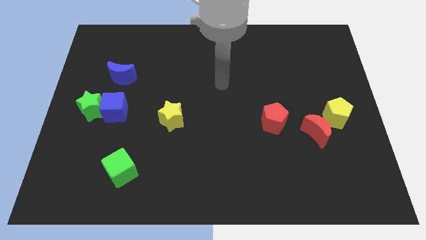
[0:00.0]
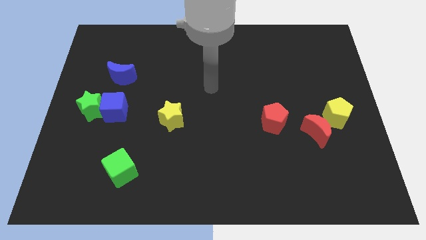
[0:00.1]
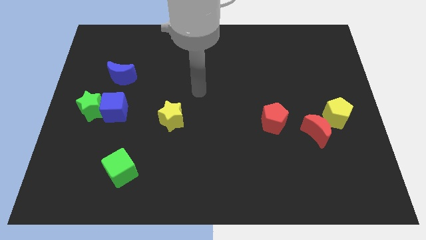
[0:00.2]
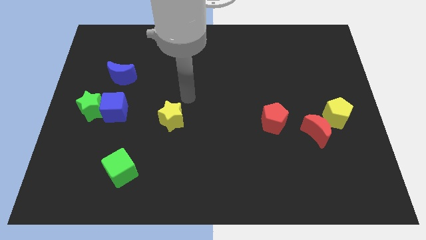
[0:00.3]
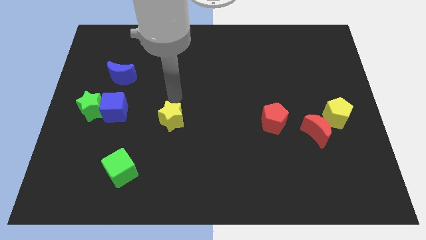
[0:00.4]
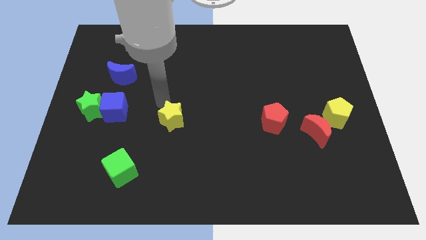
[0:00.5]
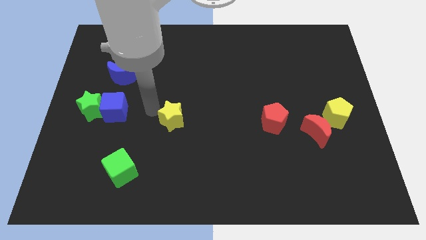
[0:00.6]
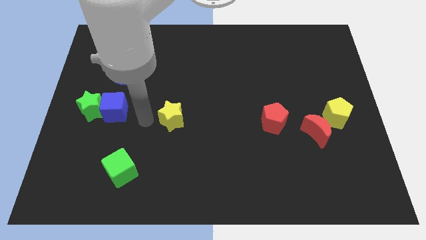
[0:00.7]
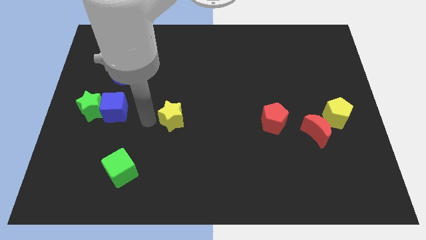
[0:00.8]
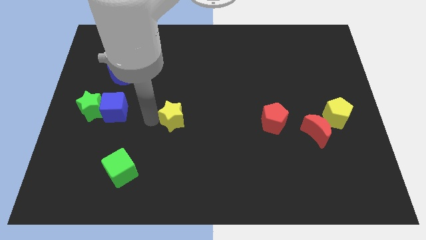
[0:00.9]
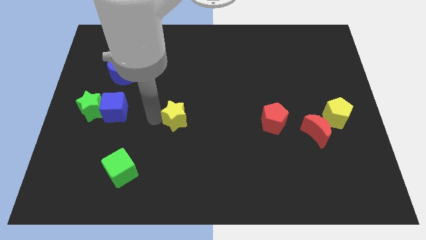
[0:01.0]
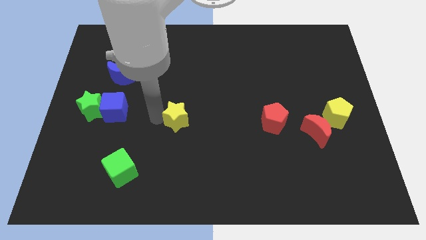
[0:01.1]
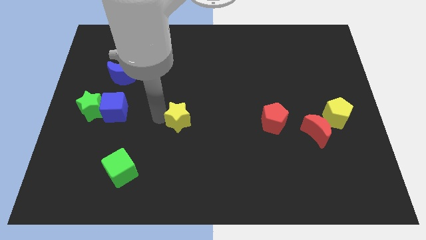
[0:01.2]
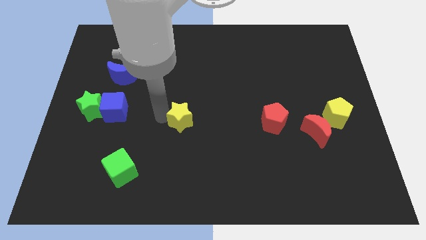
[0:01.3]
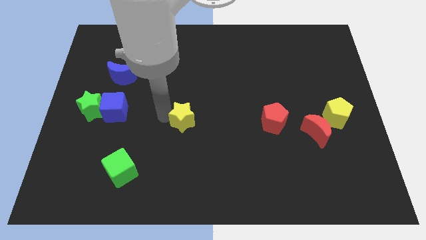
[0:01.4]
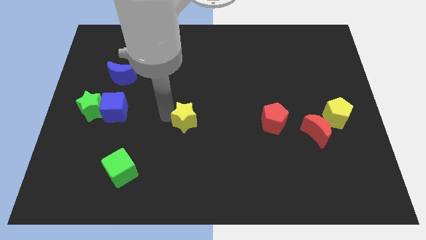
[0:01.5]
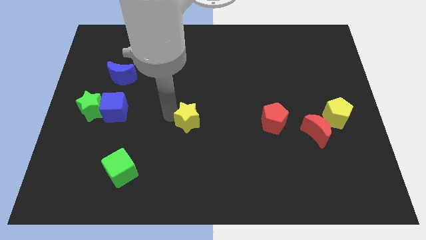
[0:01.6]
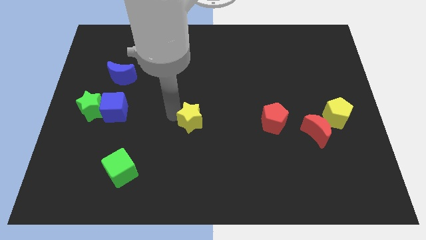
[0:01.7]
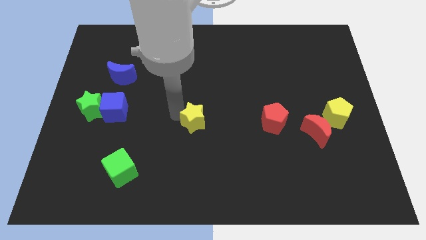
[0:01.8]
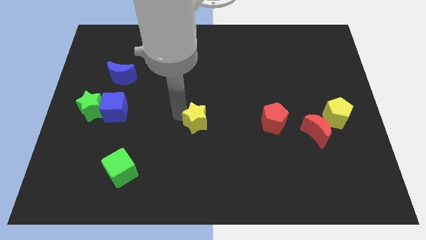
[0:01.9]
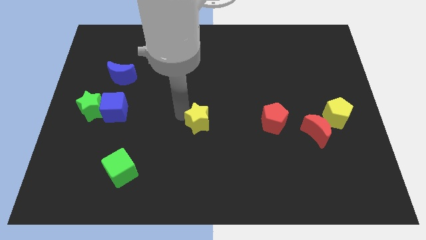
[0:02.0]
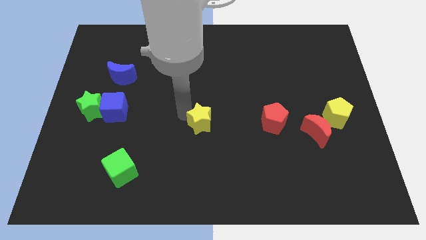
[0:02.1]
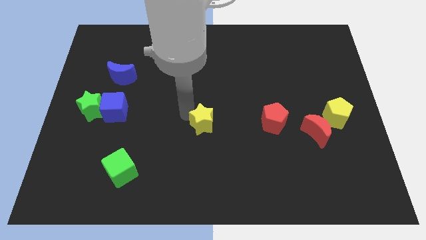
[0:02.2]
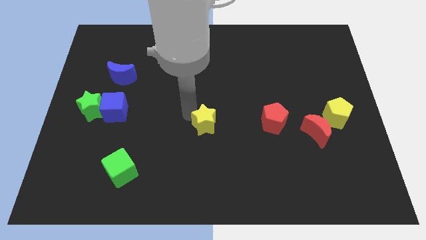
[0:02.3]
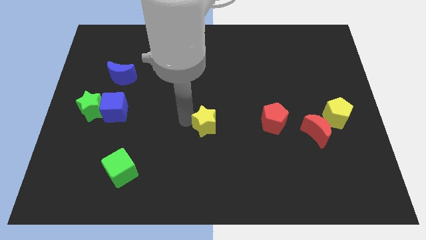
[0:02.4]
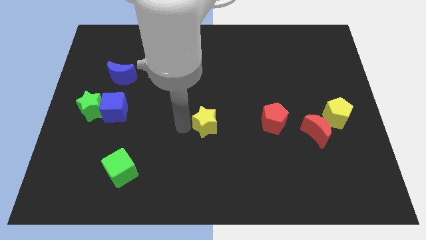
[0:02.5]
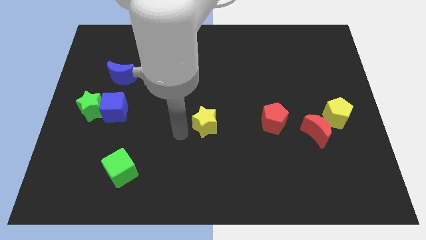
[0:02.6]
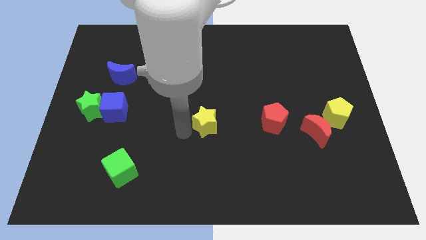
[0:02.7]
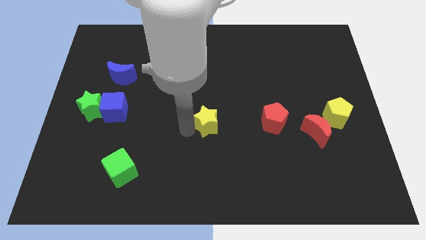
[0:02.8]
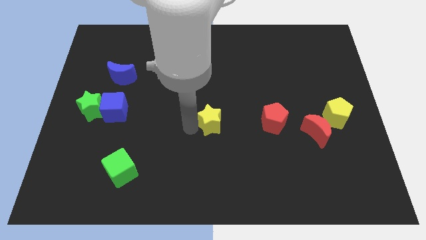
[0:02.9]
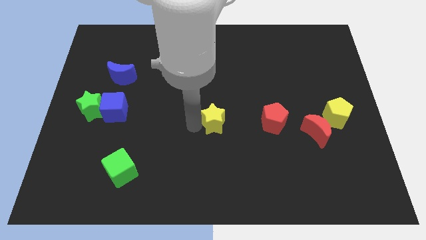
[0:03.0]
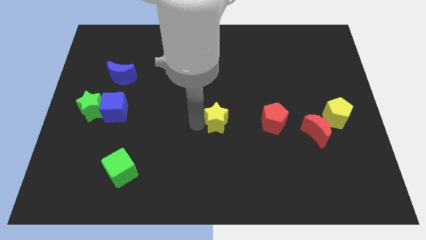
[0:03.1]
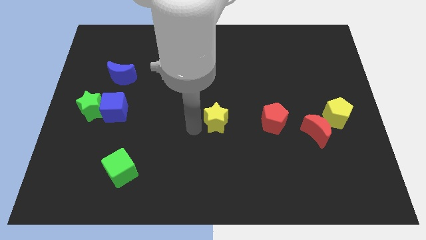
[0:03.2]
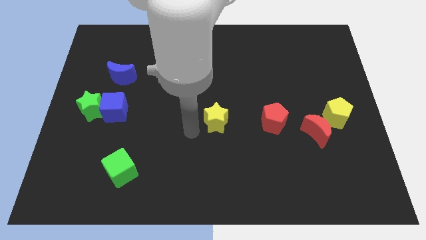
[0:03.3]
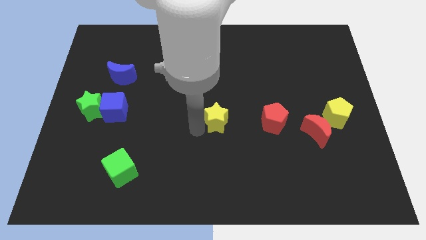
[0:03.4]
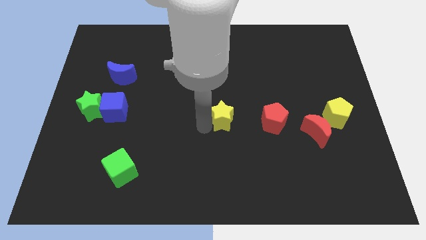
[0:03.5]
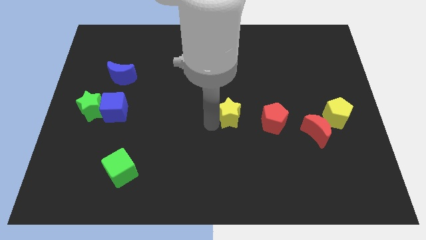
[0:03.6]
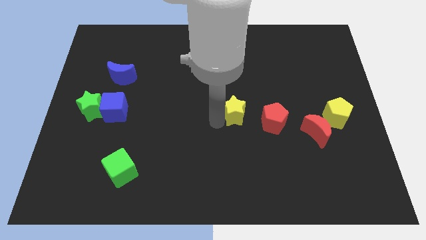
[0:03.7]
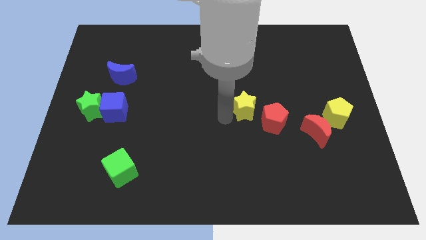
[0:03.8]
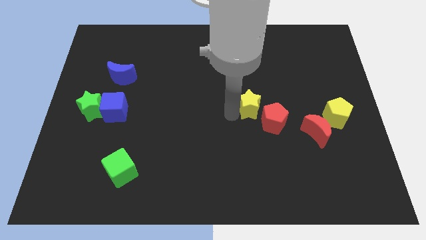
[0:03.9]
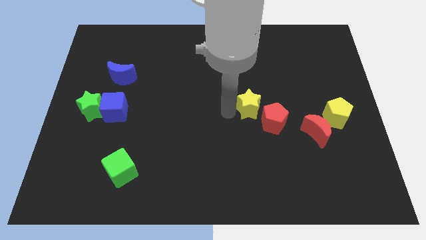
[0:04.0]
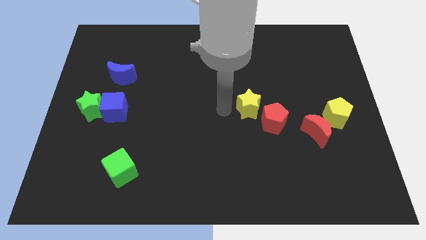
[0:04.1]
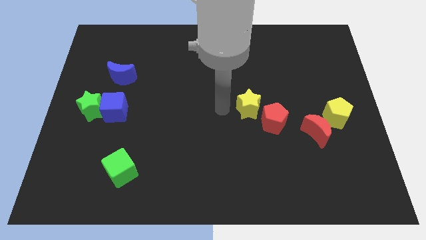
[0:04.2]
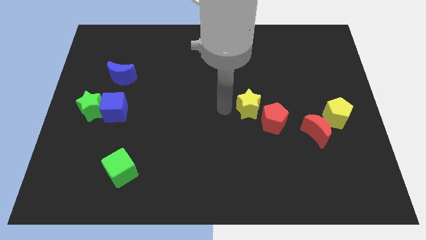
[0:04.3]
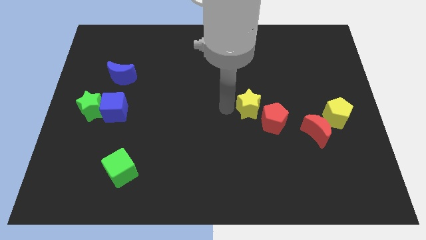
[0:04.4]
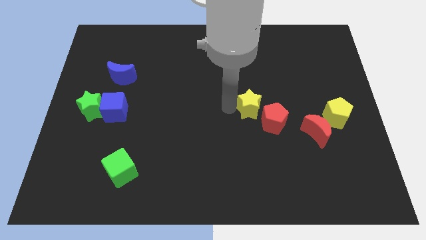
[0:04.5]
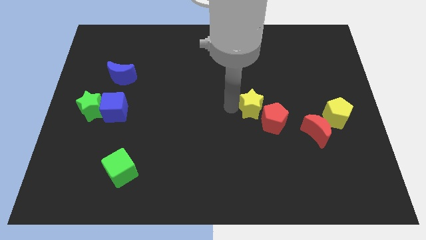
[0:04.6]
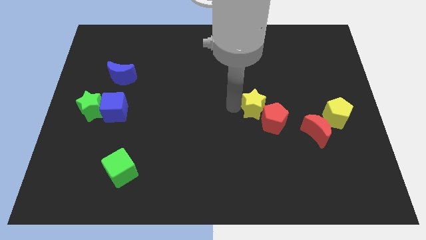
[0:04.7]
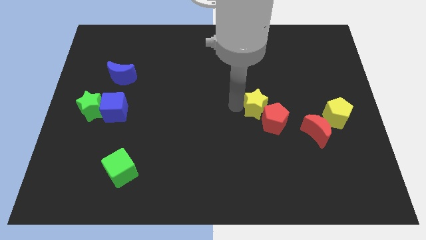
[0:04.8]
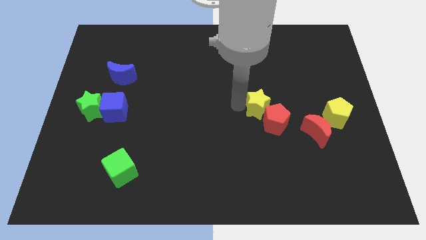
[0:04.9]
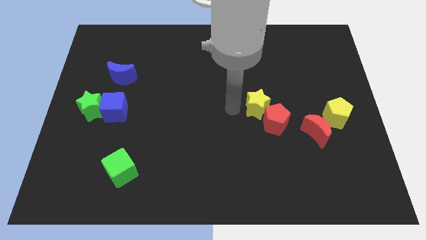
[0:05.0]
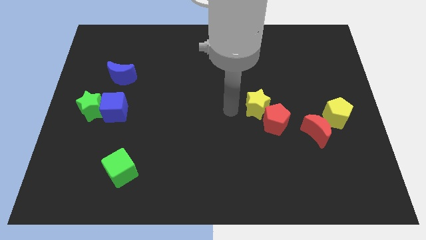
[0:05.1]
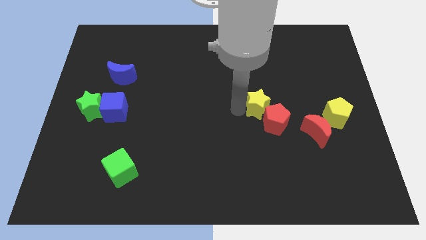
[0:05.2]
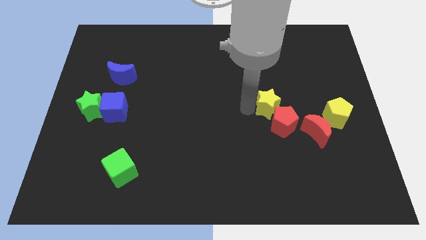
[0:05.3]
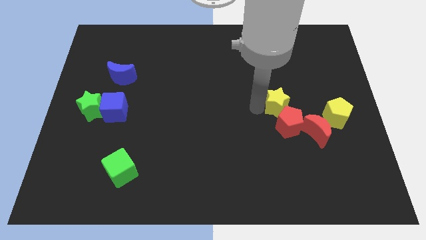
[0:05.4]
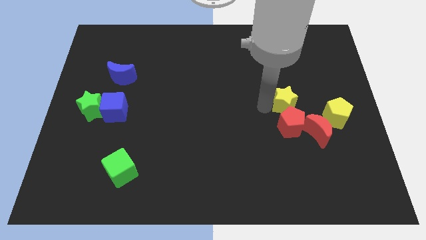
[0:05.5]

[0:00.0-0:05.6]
push the yellow star to the top right of the red pentagon

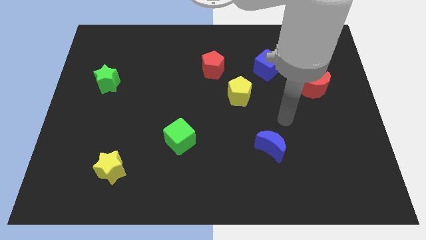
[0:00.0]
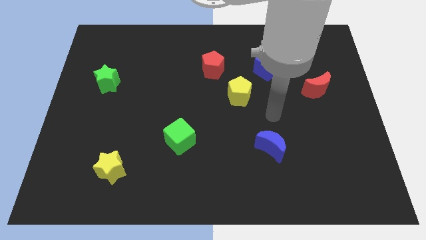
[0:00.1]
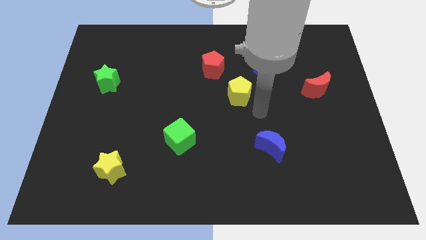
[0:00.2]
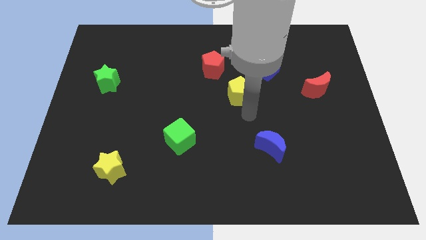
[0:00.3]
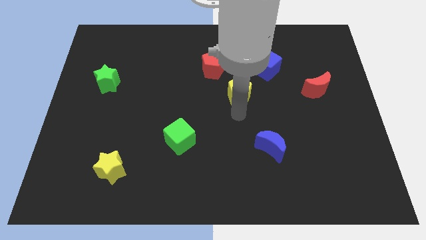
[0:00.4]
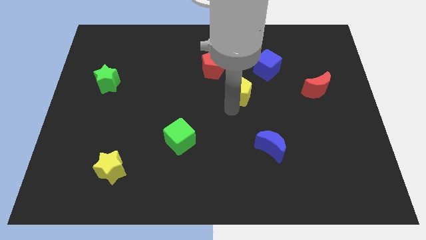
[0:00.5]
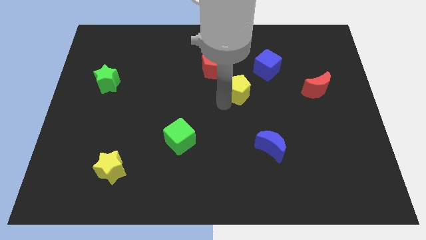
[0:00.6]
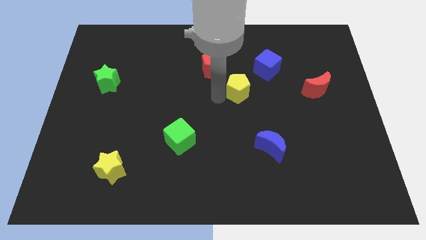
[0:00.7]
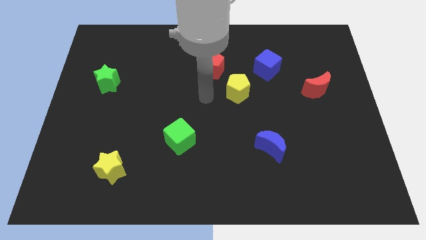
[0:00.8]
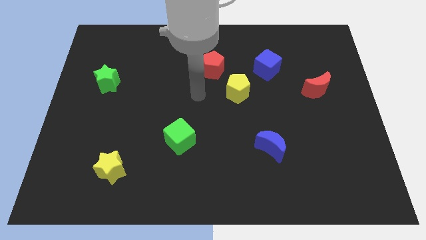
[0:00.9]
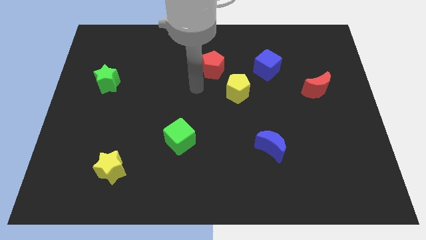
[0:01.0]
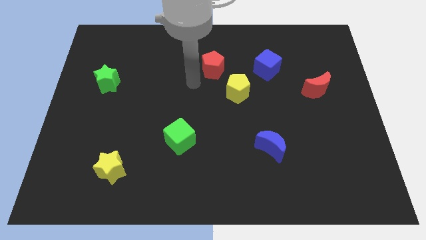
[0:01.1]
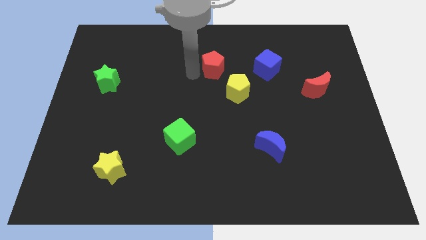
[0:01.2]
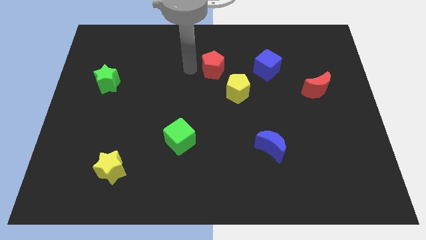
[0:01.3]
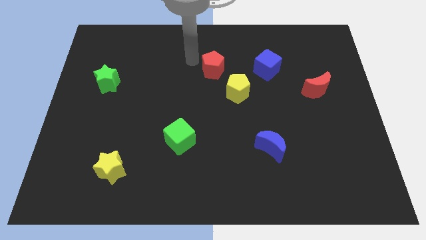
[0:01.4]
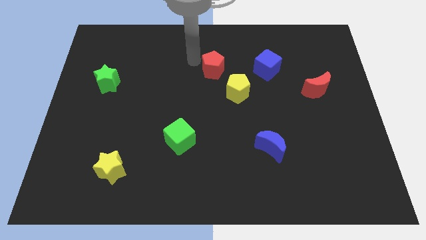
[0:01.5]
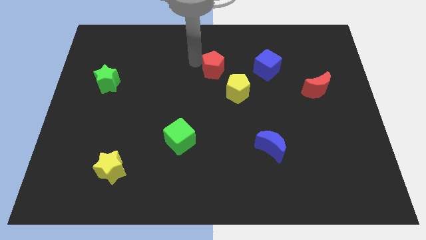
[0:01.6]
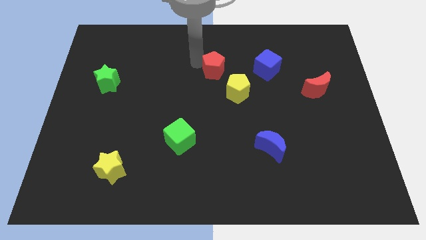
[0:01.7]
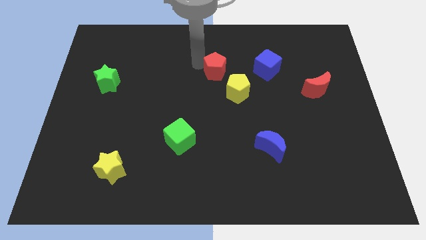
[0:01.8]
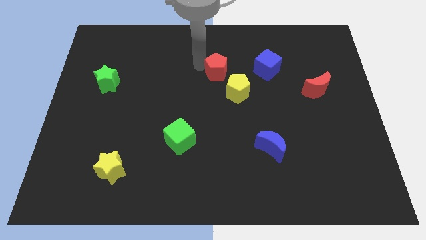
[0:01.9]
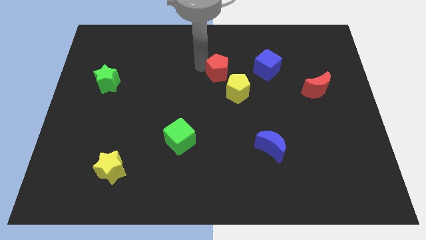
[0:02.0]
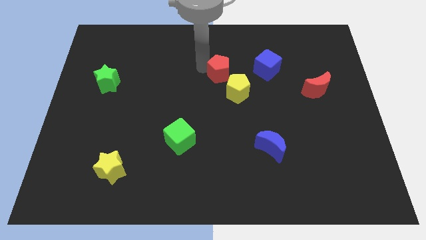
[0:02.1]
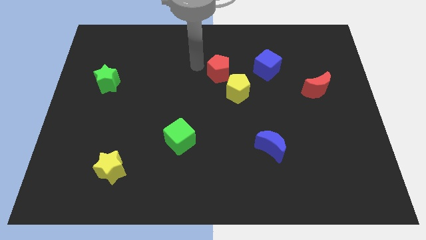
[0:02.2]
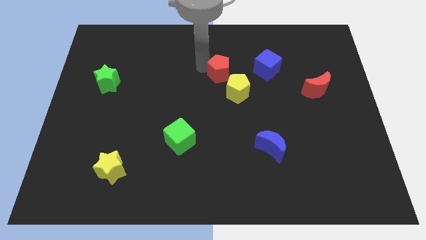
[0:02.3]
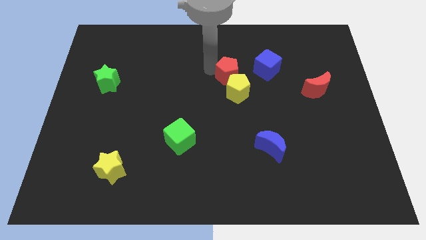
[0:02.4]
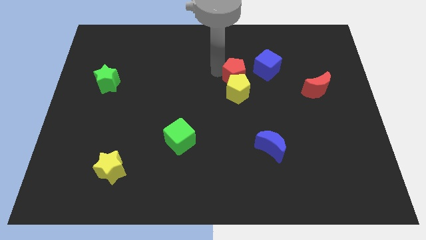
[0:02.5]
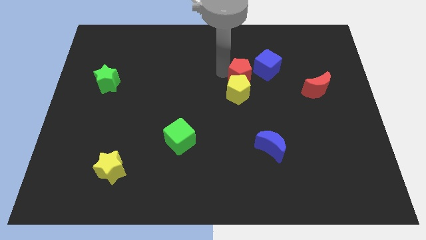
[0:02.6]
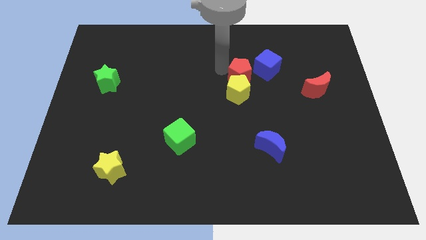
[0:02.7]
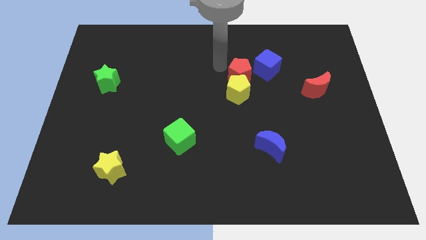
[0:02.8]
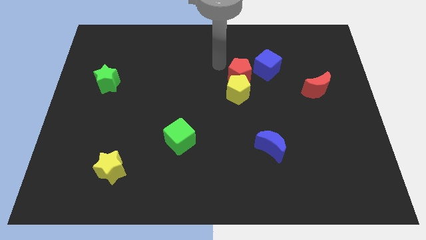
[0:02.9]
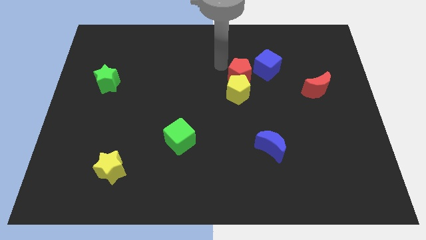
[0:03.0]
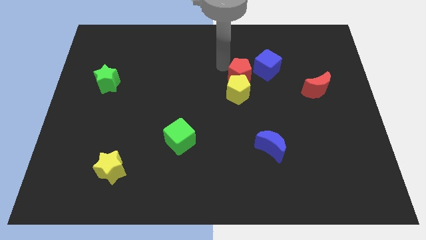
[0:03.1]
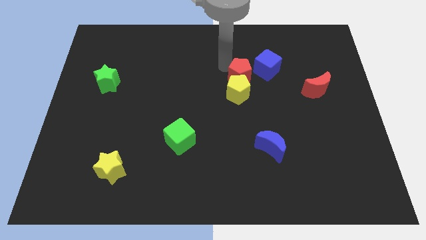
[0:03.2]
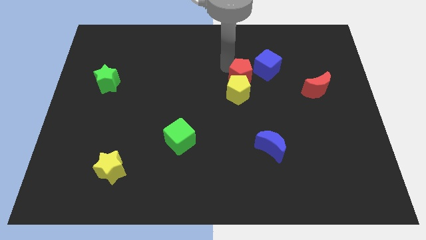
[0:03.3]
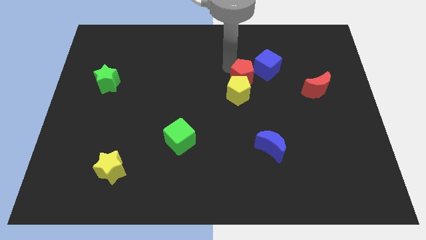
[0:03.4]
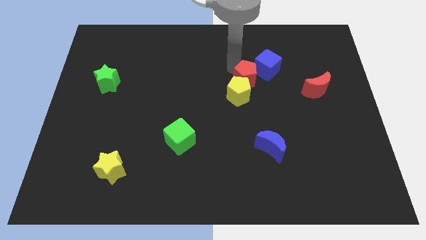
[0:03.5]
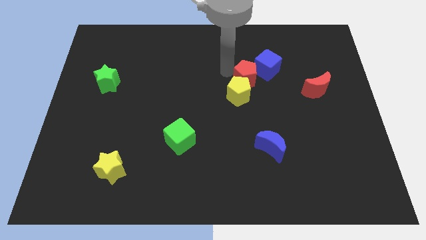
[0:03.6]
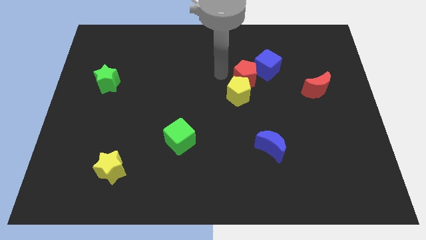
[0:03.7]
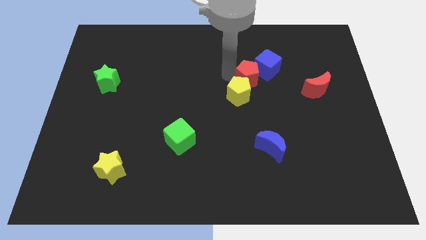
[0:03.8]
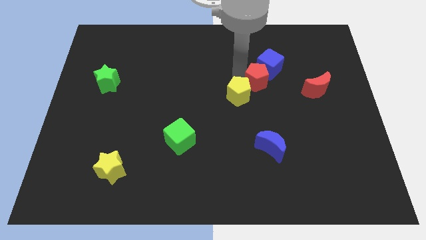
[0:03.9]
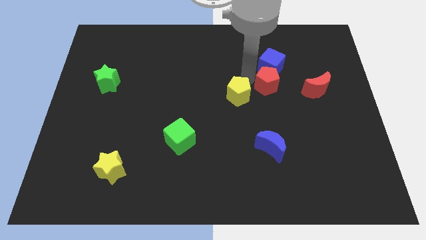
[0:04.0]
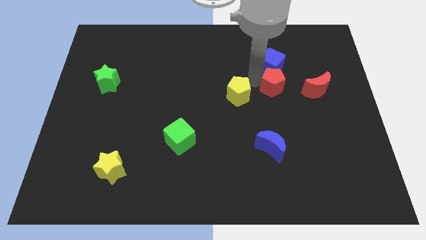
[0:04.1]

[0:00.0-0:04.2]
push the red pentagon to the bottom right of the blue cube
